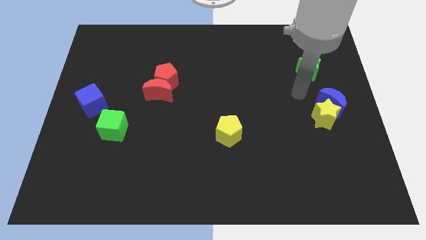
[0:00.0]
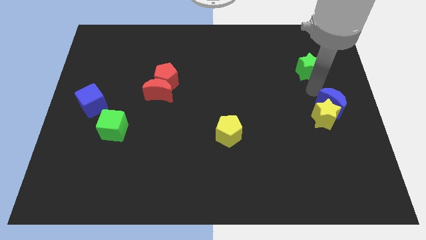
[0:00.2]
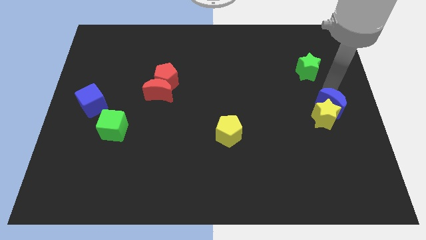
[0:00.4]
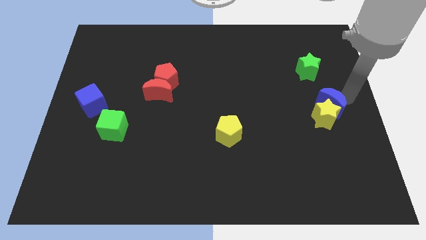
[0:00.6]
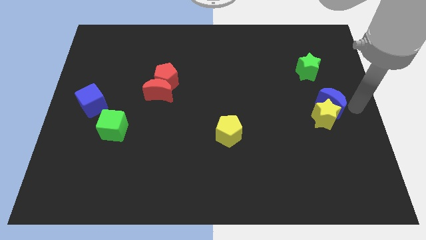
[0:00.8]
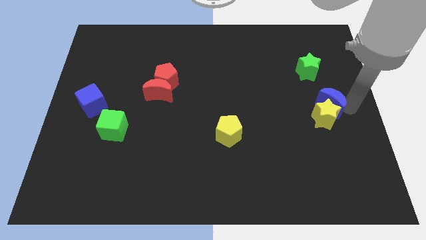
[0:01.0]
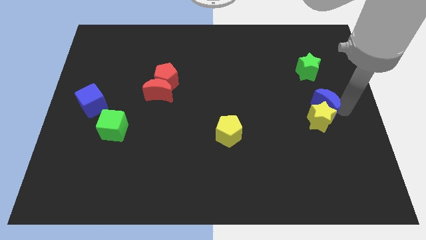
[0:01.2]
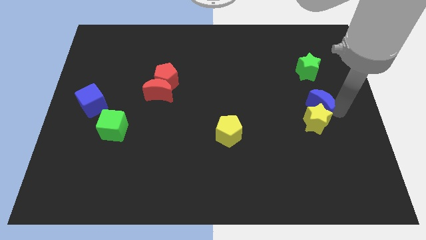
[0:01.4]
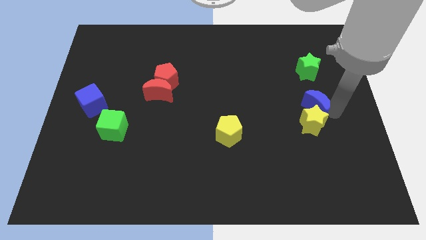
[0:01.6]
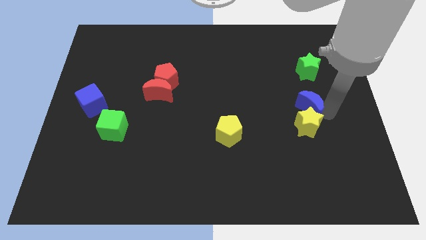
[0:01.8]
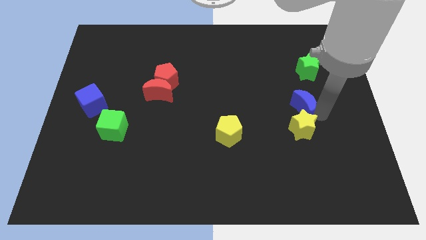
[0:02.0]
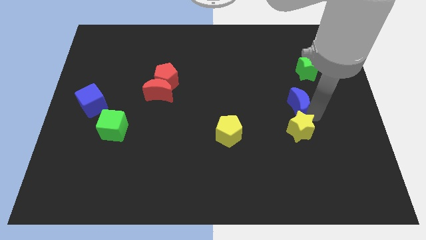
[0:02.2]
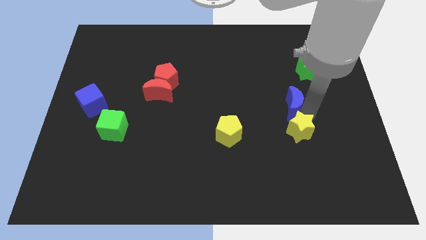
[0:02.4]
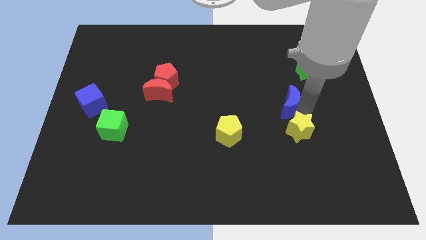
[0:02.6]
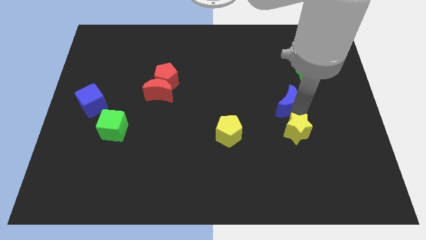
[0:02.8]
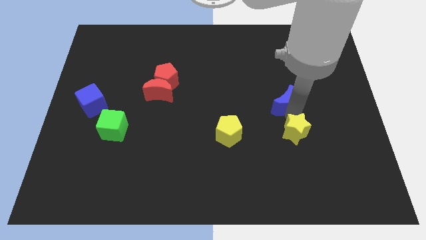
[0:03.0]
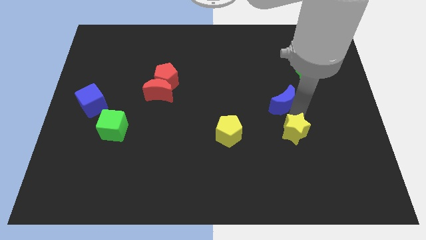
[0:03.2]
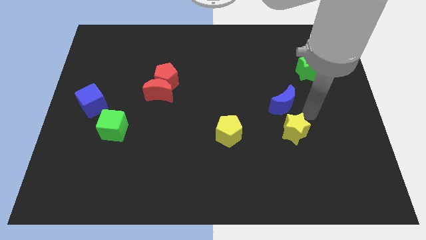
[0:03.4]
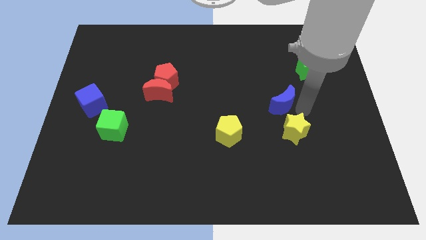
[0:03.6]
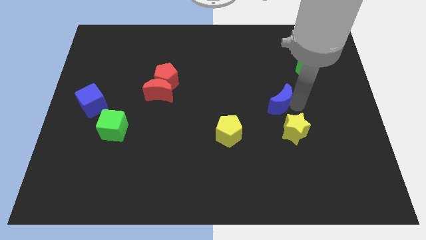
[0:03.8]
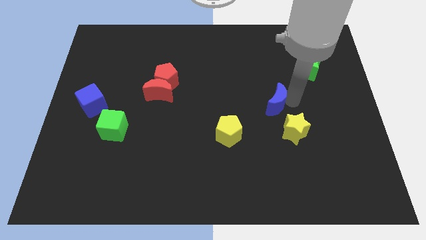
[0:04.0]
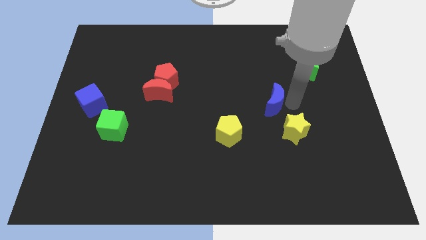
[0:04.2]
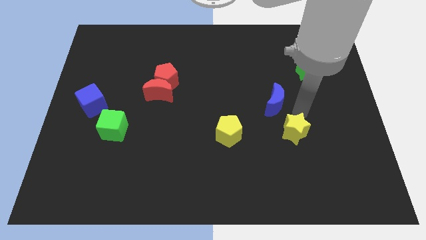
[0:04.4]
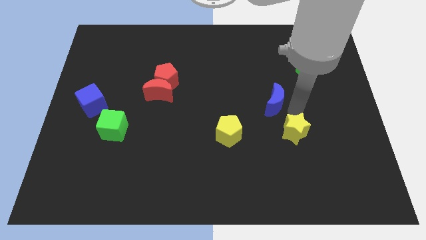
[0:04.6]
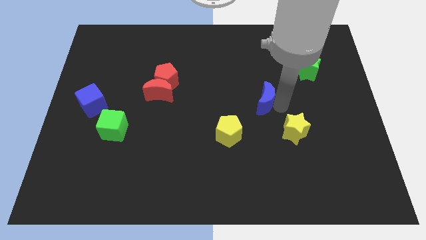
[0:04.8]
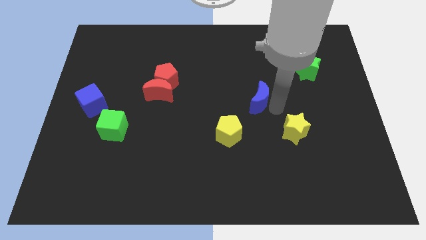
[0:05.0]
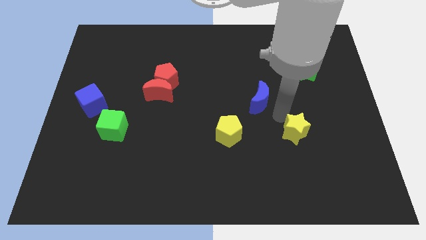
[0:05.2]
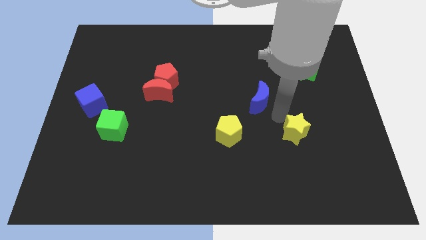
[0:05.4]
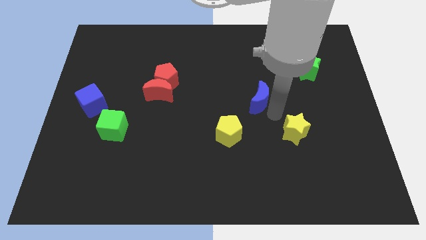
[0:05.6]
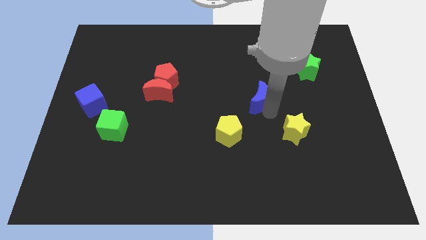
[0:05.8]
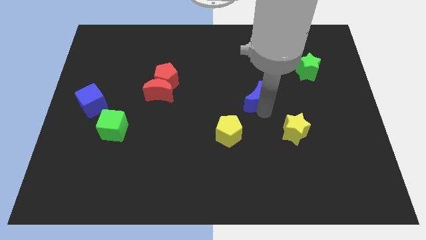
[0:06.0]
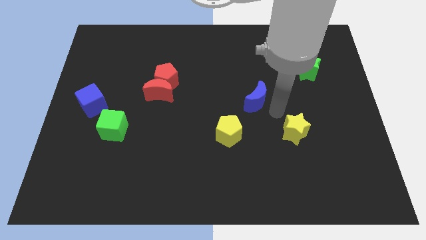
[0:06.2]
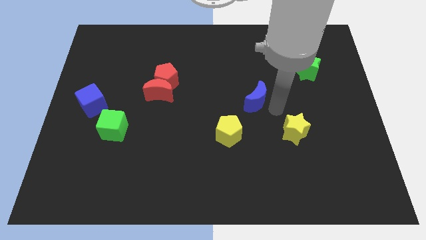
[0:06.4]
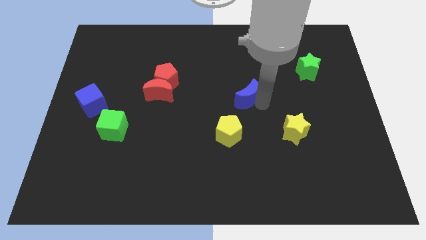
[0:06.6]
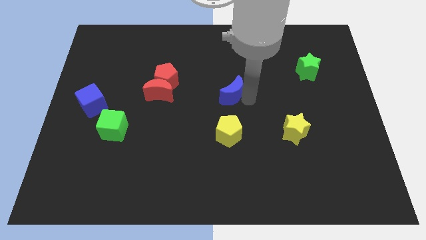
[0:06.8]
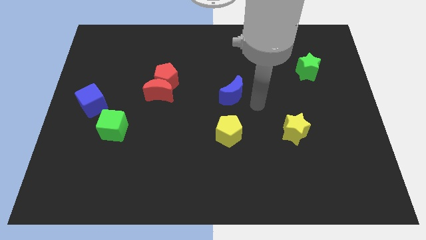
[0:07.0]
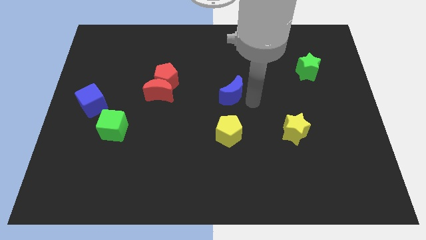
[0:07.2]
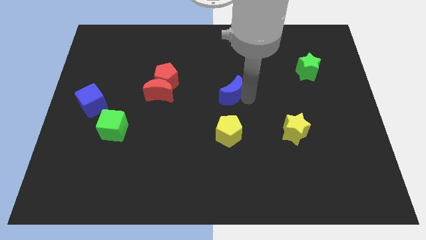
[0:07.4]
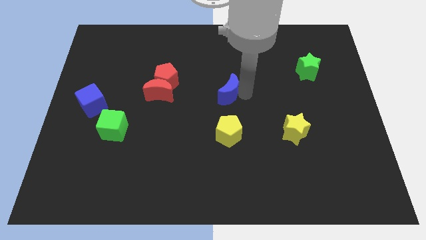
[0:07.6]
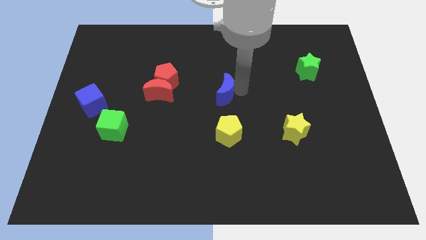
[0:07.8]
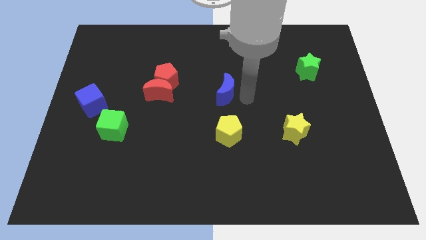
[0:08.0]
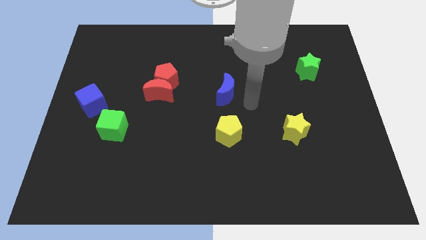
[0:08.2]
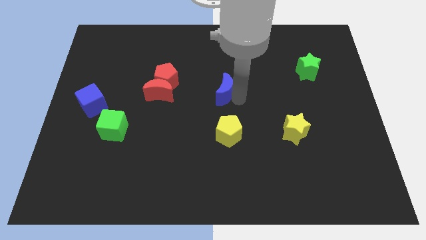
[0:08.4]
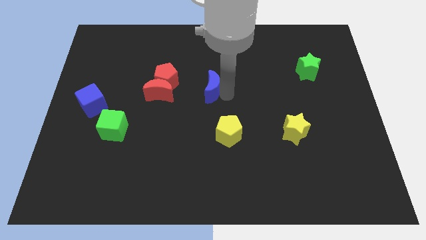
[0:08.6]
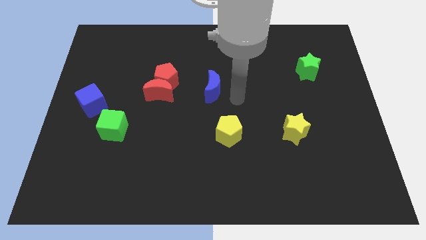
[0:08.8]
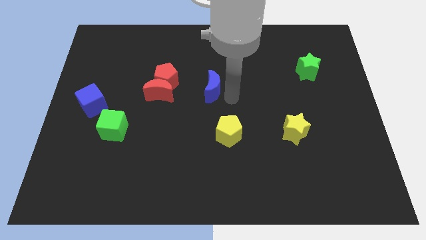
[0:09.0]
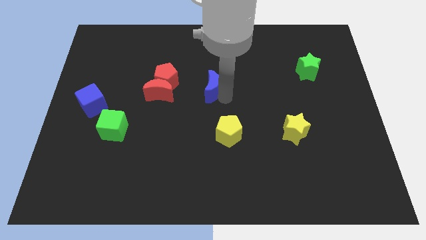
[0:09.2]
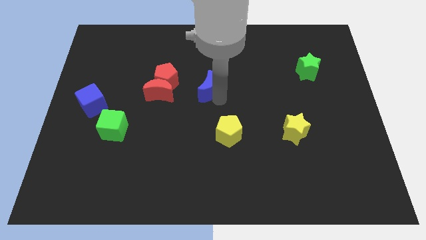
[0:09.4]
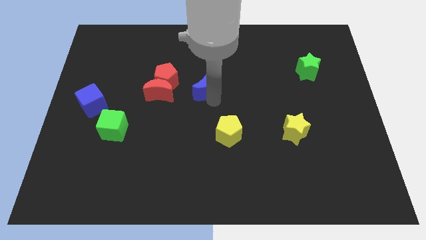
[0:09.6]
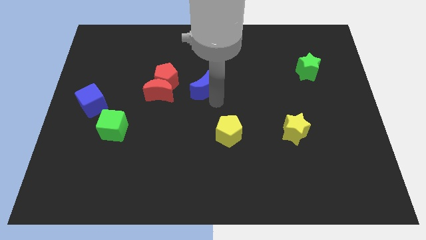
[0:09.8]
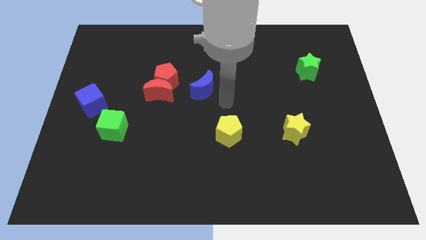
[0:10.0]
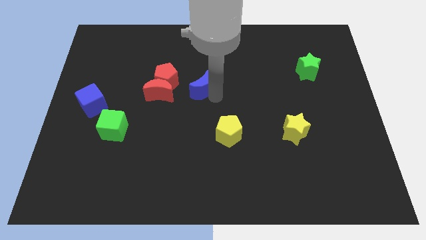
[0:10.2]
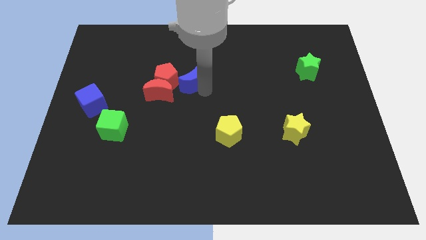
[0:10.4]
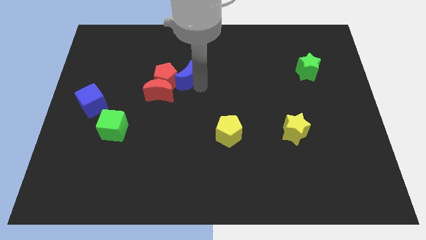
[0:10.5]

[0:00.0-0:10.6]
put the blue moon close to the red pentagon

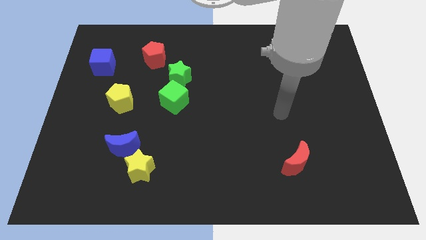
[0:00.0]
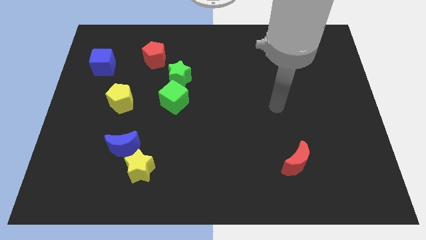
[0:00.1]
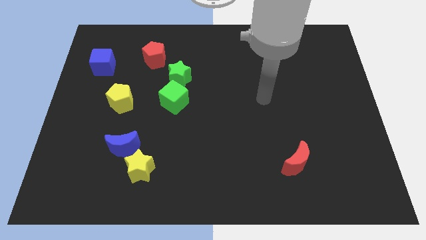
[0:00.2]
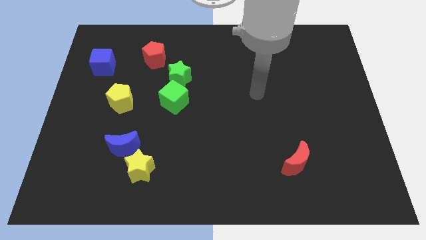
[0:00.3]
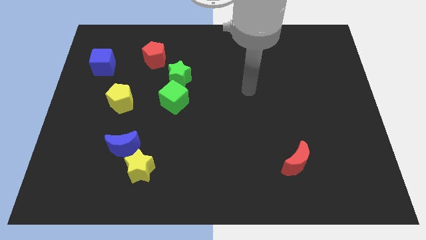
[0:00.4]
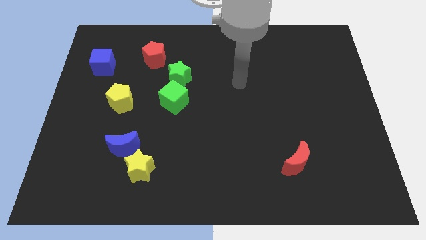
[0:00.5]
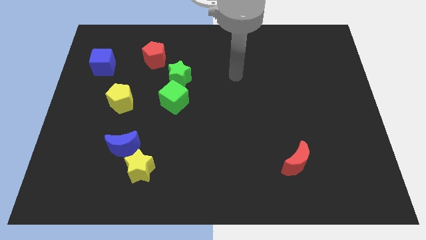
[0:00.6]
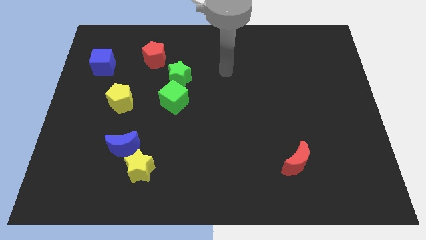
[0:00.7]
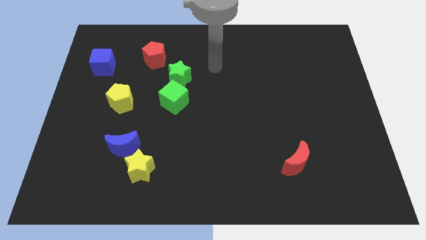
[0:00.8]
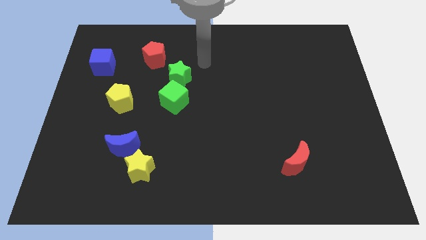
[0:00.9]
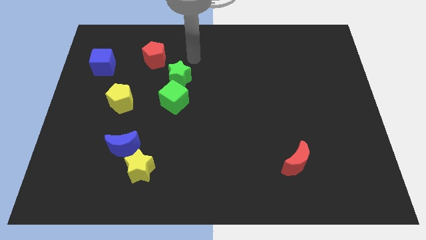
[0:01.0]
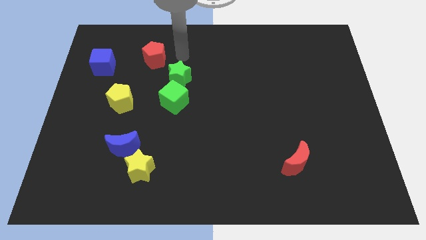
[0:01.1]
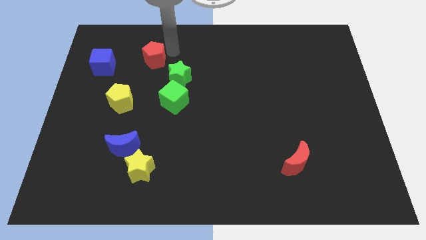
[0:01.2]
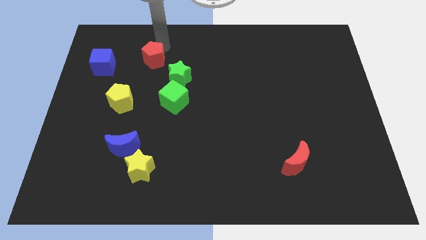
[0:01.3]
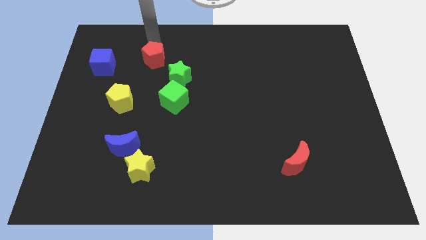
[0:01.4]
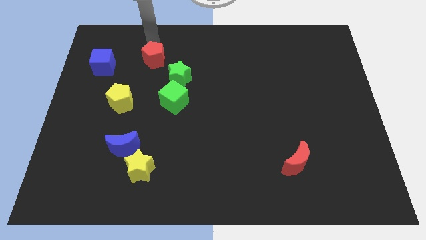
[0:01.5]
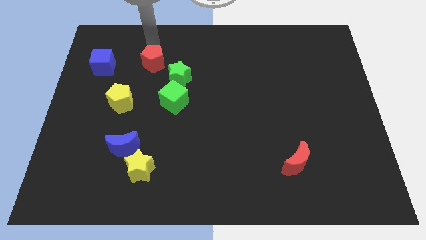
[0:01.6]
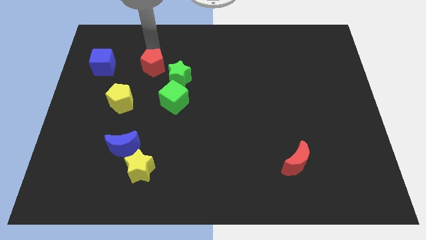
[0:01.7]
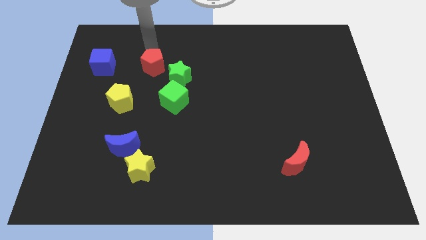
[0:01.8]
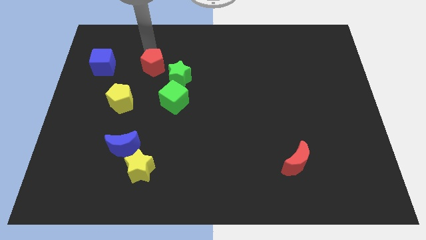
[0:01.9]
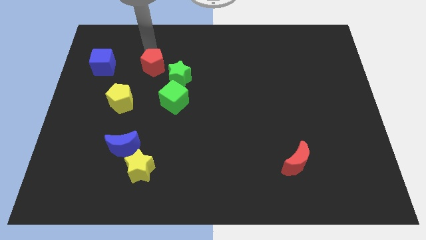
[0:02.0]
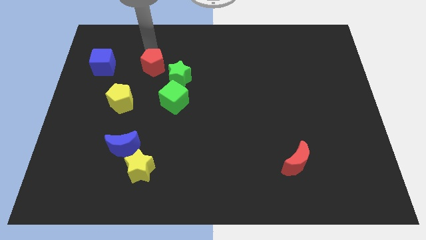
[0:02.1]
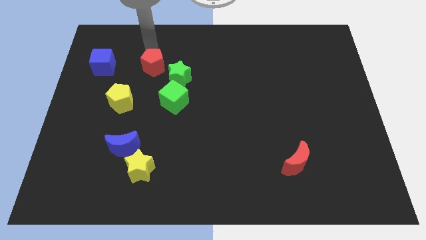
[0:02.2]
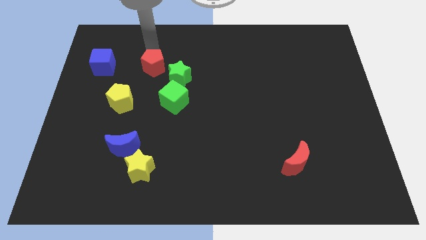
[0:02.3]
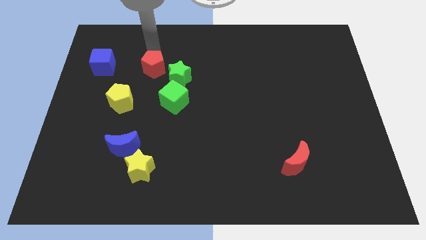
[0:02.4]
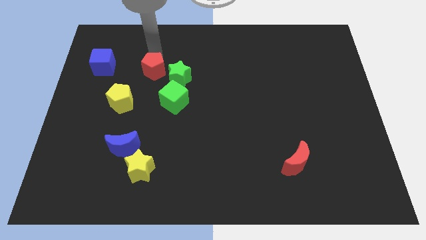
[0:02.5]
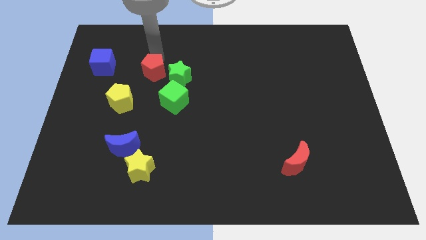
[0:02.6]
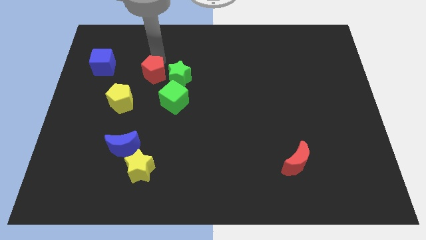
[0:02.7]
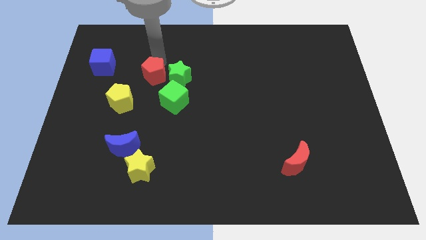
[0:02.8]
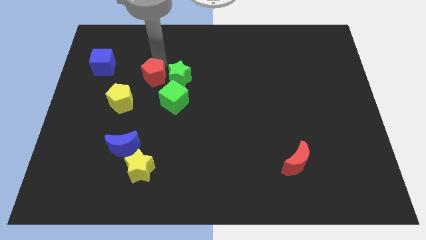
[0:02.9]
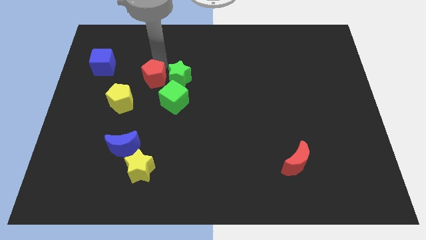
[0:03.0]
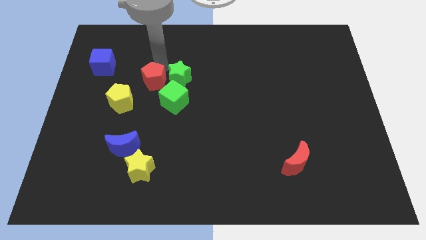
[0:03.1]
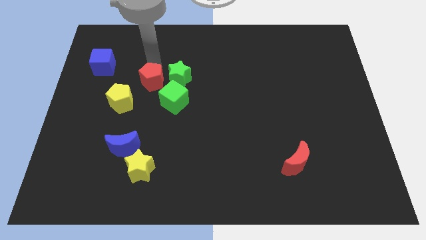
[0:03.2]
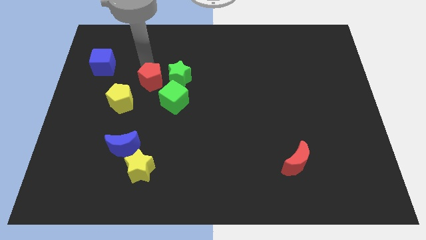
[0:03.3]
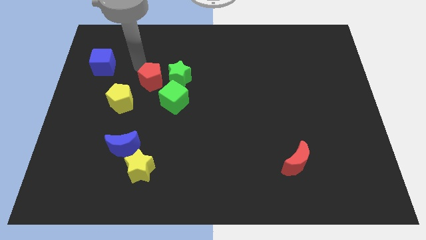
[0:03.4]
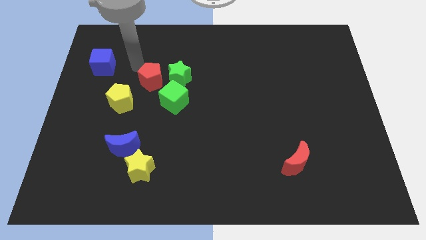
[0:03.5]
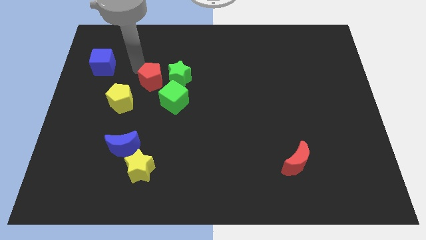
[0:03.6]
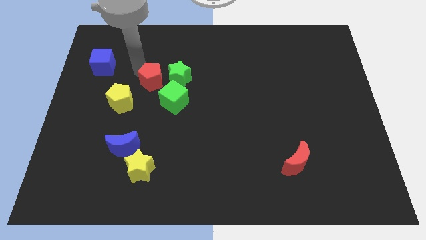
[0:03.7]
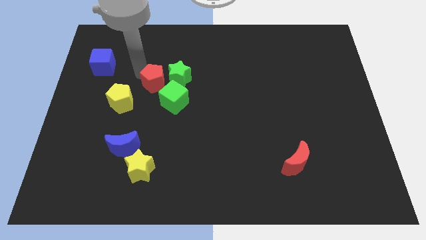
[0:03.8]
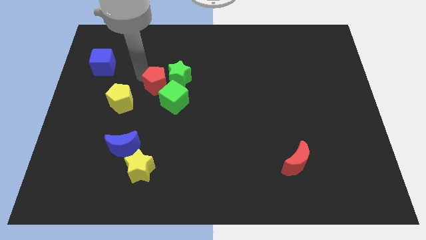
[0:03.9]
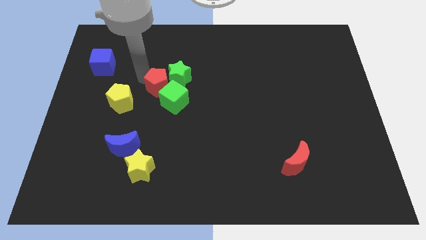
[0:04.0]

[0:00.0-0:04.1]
slide the red pentagon close to the green cube
